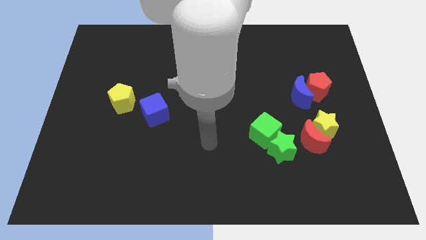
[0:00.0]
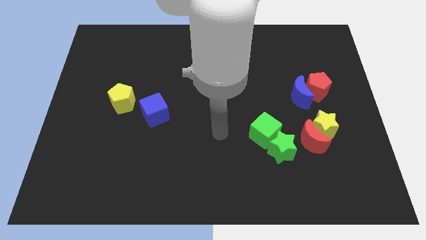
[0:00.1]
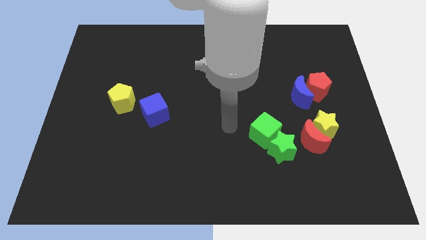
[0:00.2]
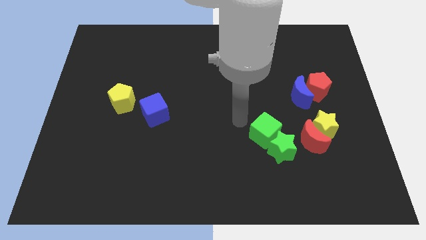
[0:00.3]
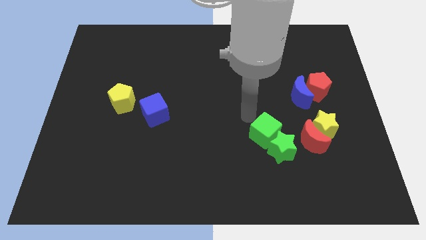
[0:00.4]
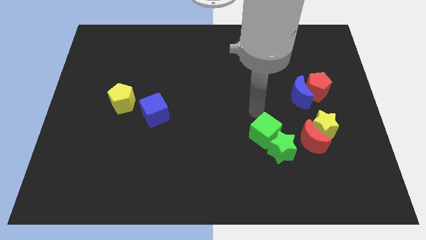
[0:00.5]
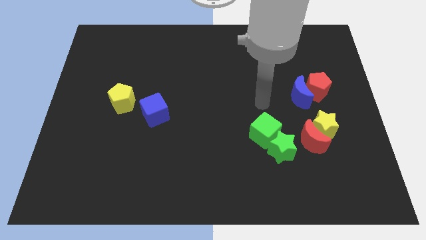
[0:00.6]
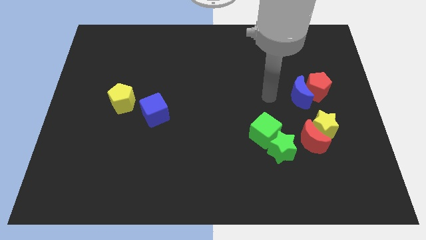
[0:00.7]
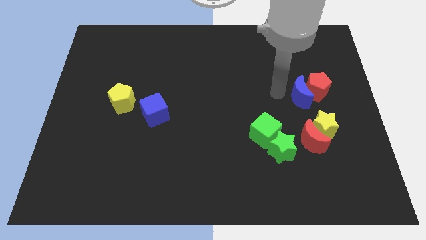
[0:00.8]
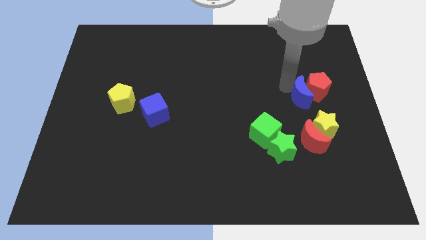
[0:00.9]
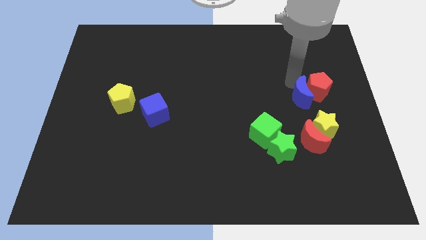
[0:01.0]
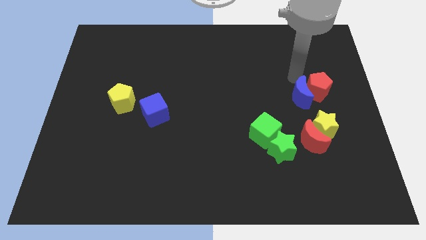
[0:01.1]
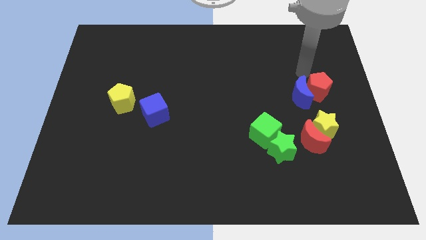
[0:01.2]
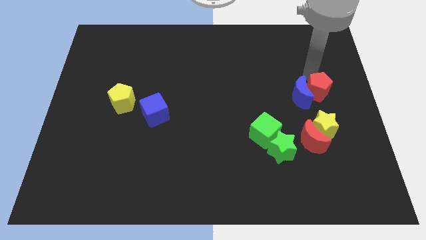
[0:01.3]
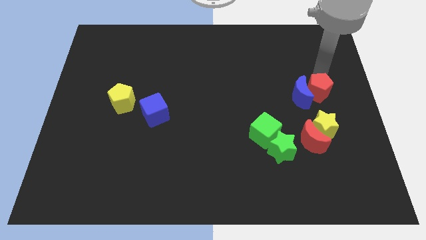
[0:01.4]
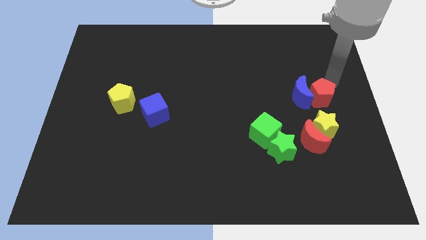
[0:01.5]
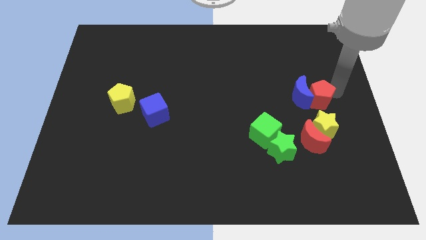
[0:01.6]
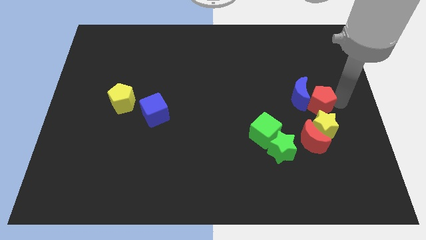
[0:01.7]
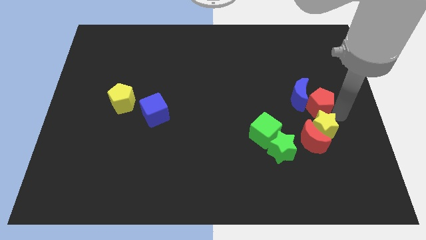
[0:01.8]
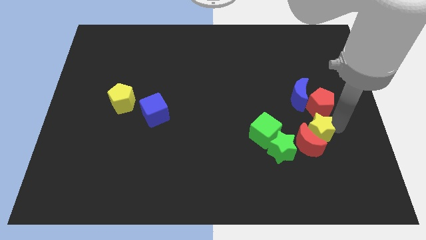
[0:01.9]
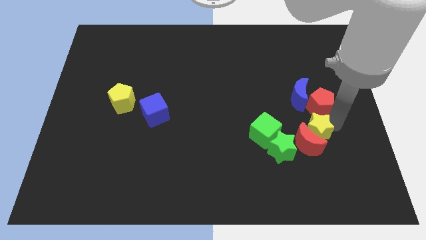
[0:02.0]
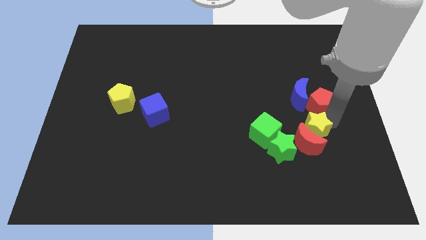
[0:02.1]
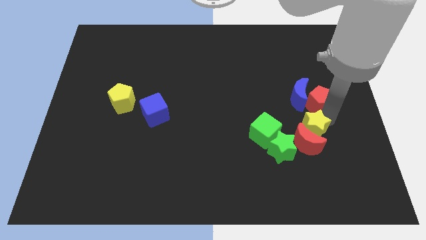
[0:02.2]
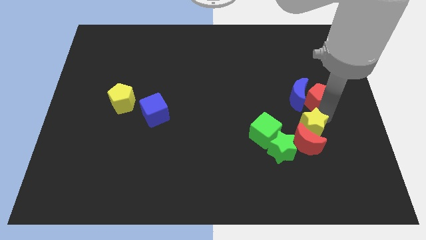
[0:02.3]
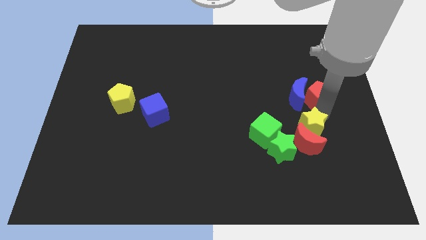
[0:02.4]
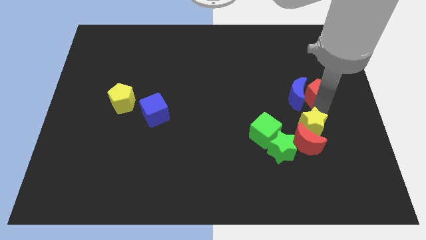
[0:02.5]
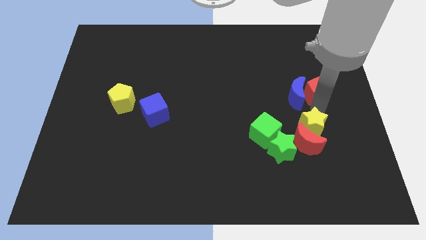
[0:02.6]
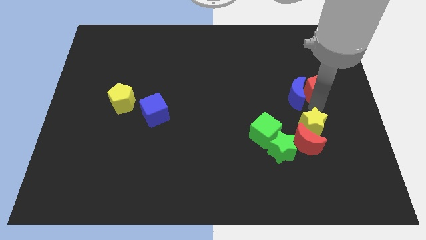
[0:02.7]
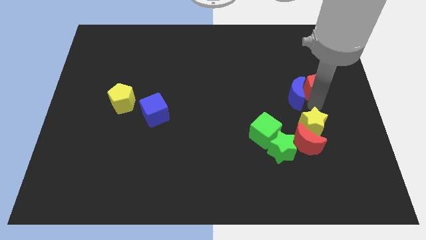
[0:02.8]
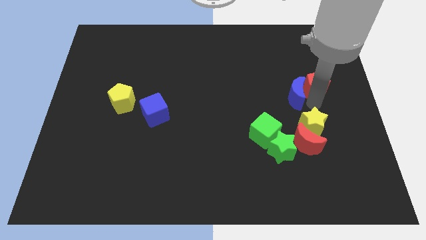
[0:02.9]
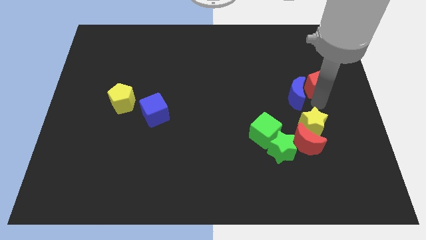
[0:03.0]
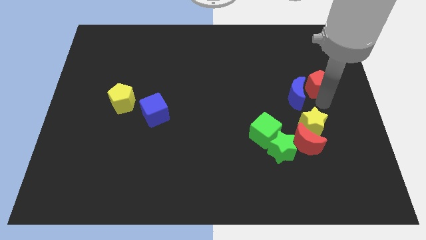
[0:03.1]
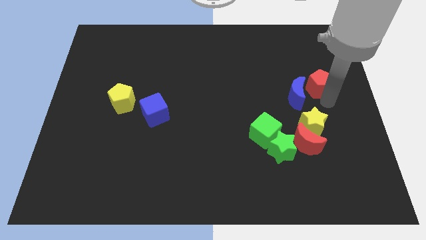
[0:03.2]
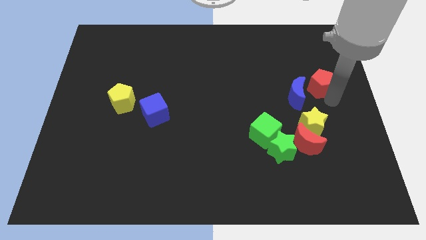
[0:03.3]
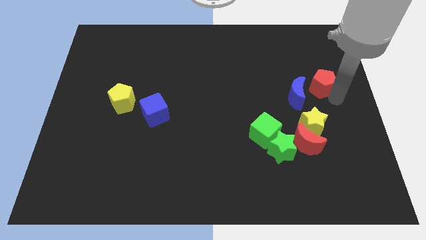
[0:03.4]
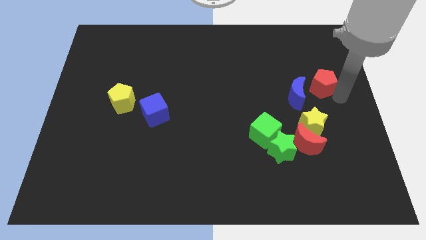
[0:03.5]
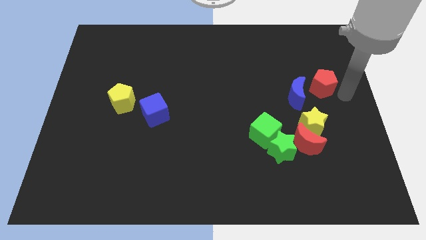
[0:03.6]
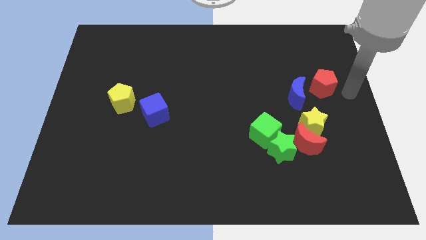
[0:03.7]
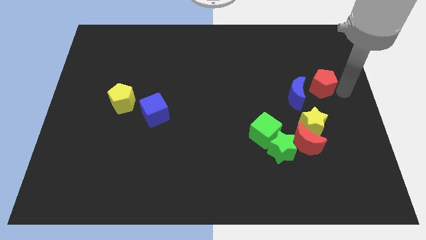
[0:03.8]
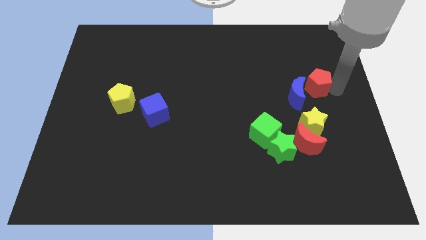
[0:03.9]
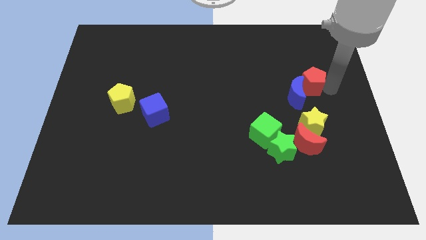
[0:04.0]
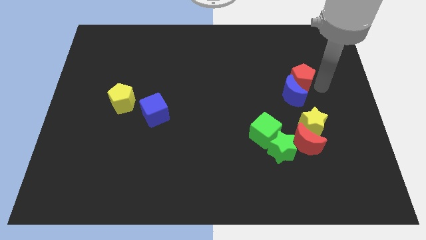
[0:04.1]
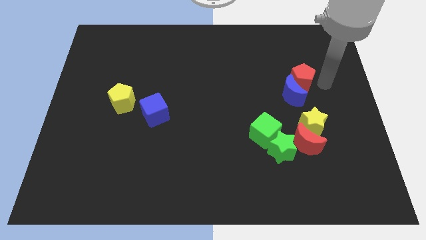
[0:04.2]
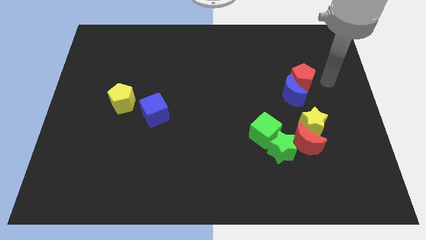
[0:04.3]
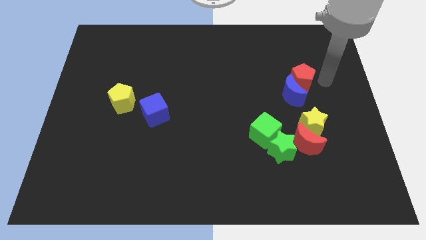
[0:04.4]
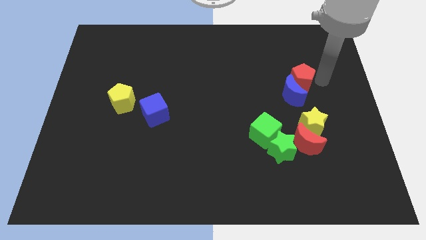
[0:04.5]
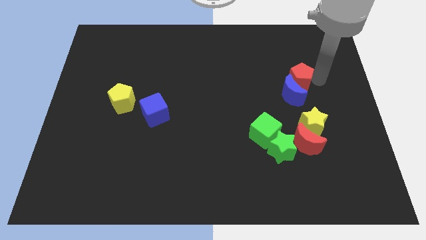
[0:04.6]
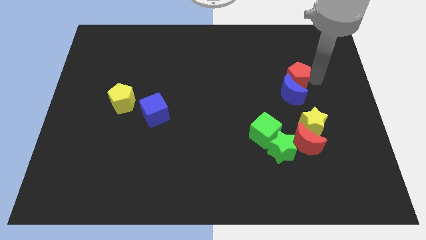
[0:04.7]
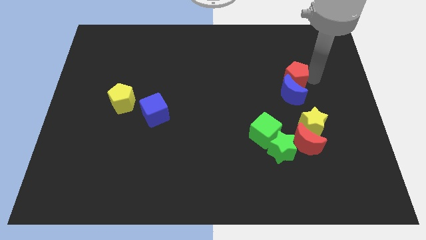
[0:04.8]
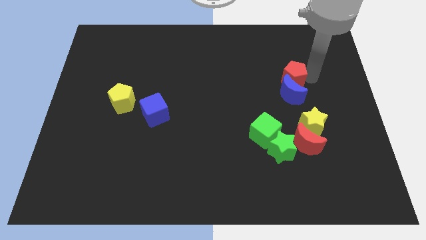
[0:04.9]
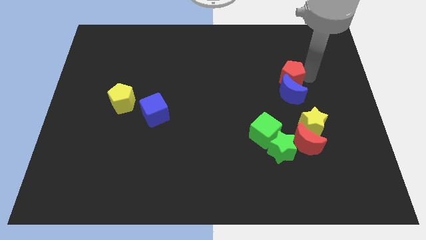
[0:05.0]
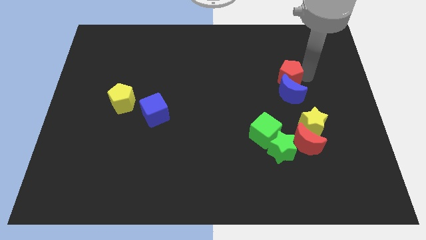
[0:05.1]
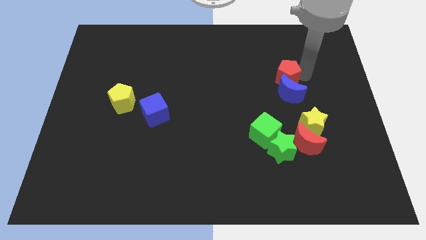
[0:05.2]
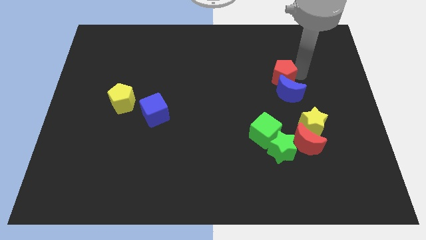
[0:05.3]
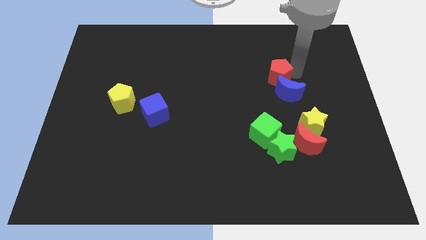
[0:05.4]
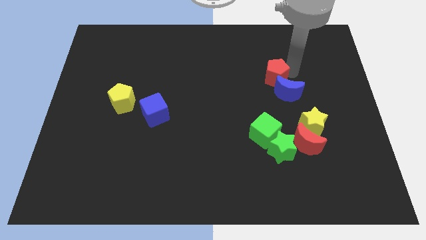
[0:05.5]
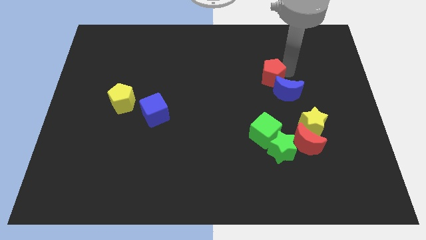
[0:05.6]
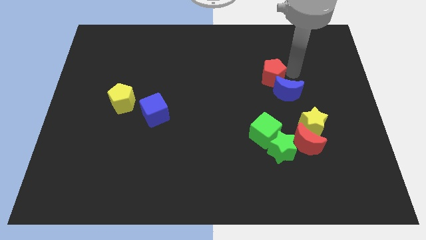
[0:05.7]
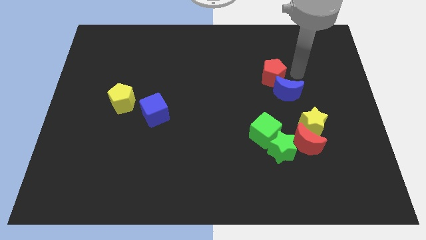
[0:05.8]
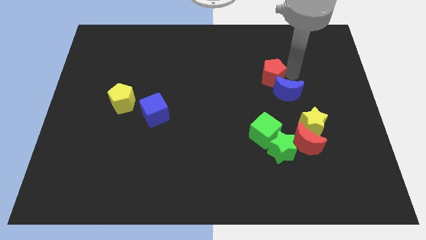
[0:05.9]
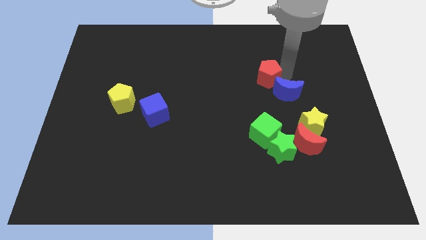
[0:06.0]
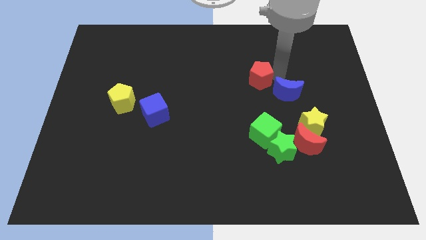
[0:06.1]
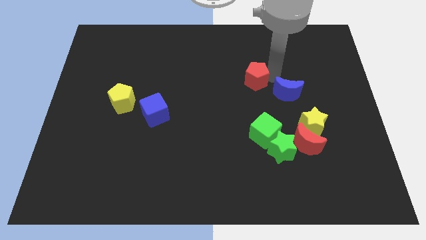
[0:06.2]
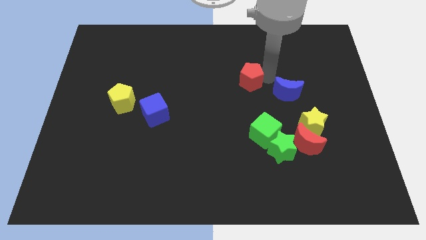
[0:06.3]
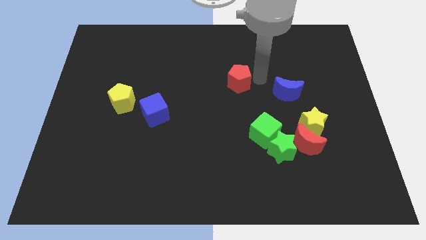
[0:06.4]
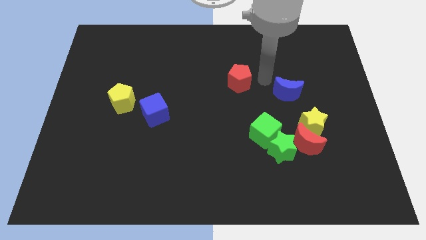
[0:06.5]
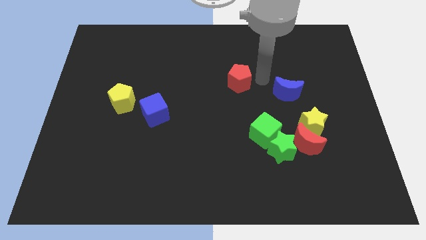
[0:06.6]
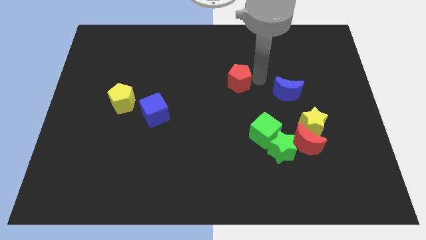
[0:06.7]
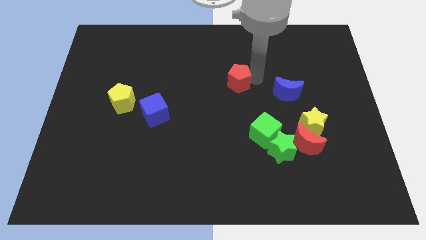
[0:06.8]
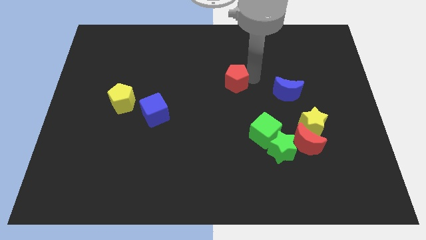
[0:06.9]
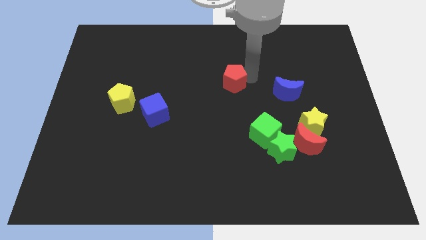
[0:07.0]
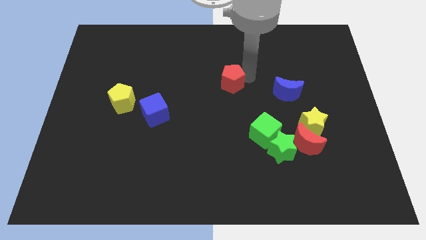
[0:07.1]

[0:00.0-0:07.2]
push the red pentagon left

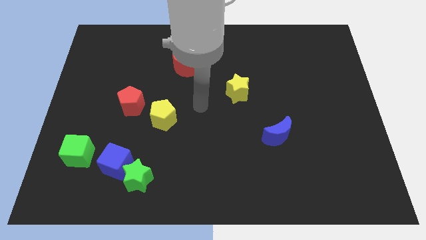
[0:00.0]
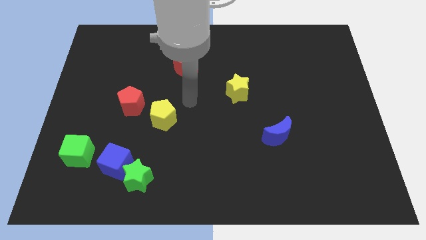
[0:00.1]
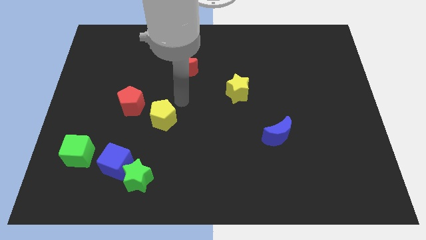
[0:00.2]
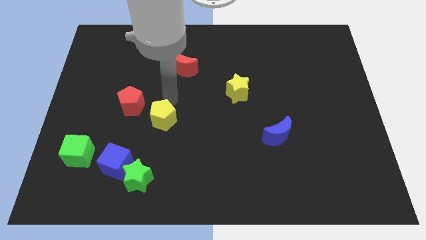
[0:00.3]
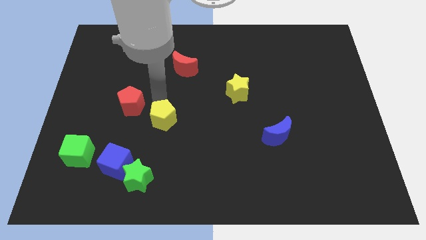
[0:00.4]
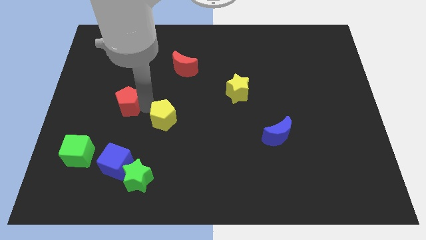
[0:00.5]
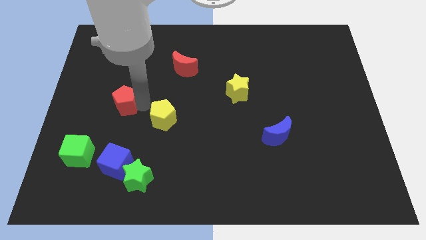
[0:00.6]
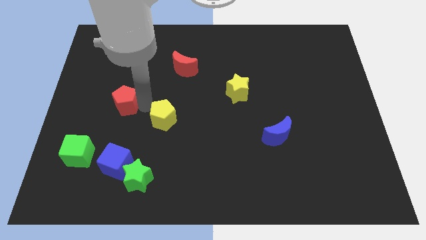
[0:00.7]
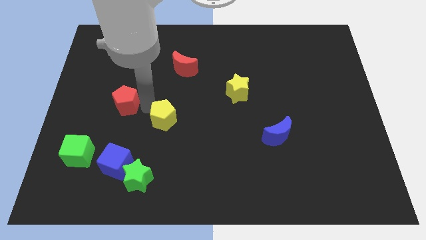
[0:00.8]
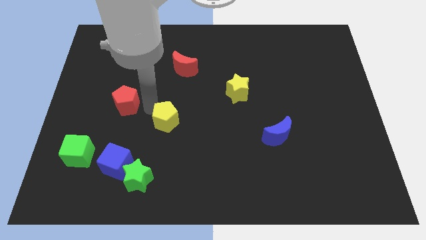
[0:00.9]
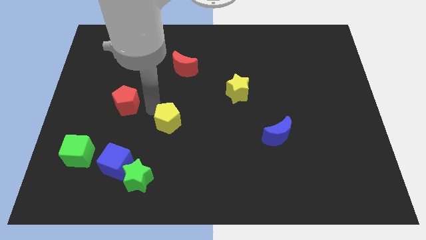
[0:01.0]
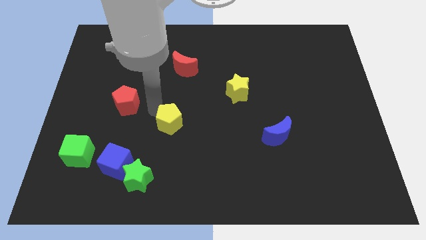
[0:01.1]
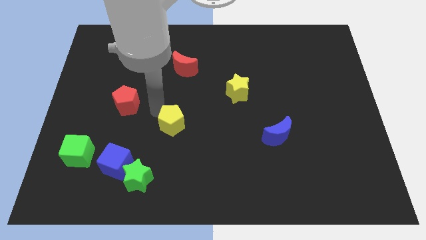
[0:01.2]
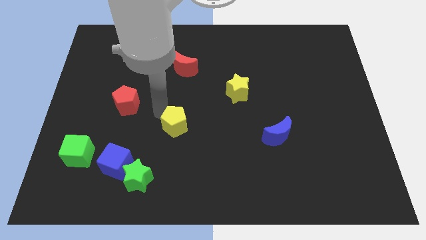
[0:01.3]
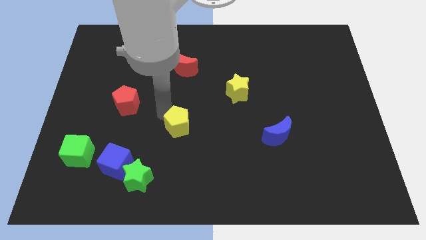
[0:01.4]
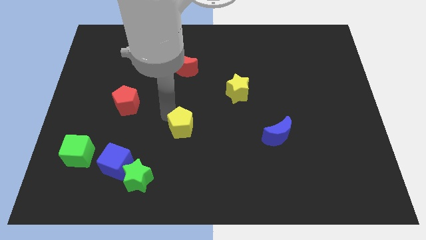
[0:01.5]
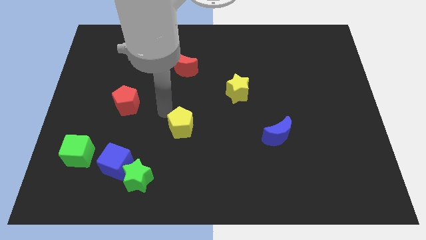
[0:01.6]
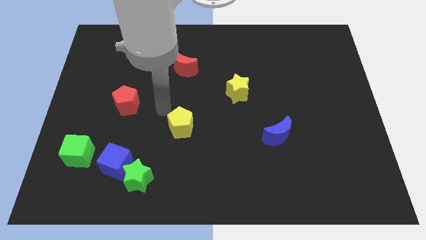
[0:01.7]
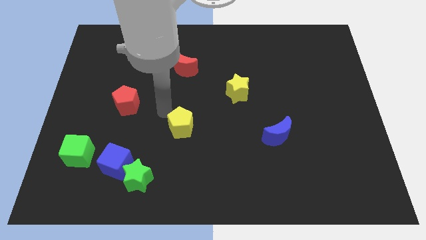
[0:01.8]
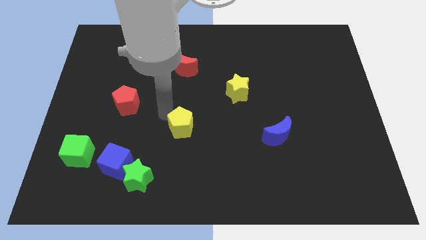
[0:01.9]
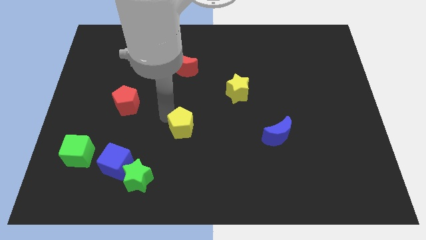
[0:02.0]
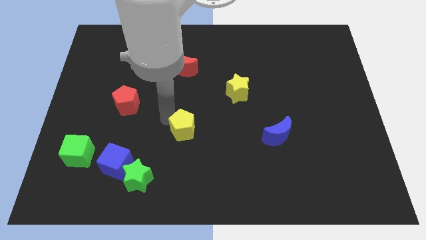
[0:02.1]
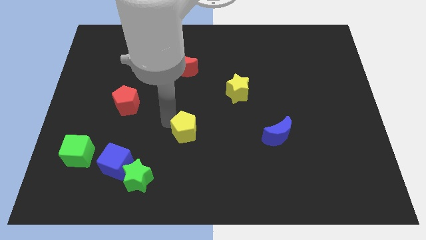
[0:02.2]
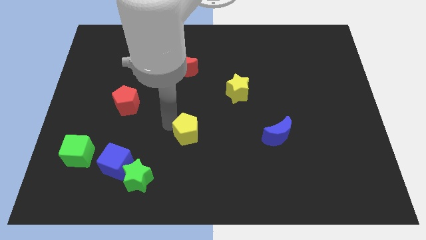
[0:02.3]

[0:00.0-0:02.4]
slide the yellow pentagon down and then to the right a bit
